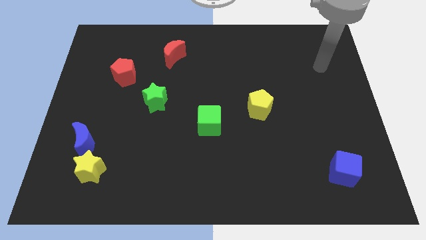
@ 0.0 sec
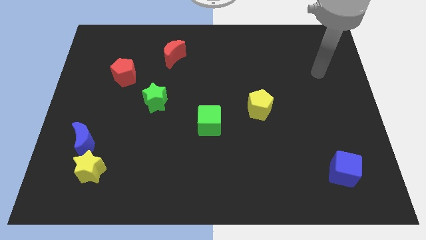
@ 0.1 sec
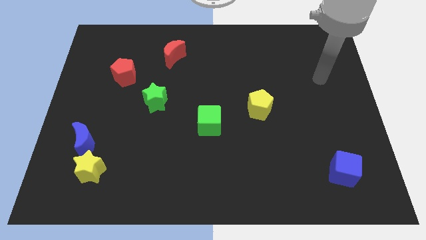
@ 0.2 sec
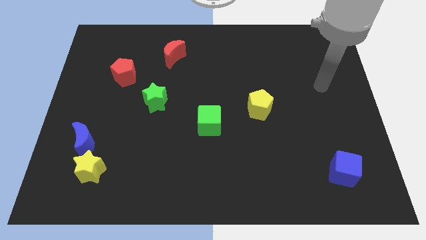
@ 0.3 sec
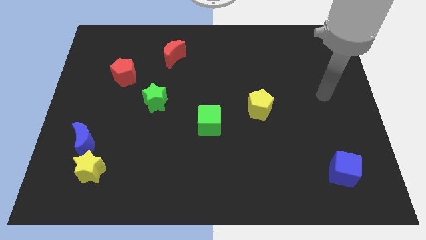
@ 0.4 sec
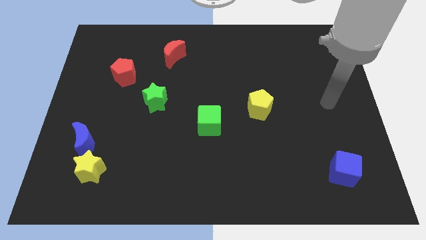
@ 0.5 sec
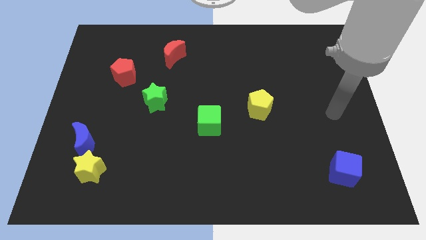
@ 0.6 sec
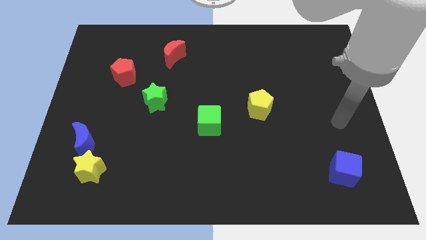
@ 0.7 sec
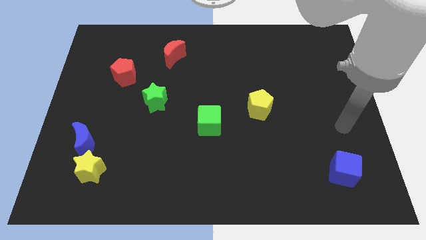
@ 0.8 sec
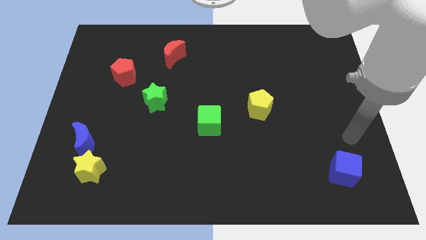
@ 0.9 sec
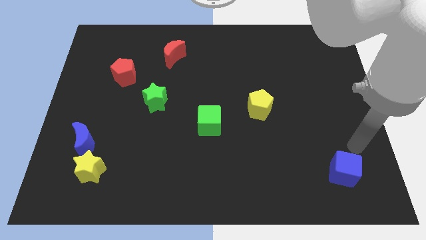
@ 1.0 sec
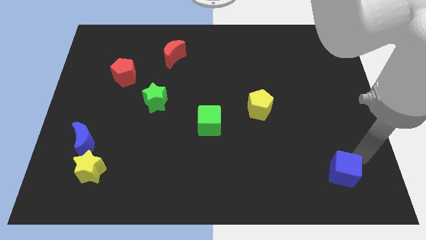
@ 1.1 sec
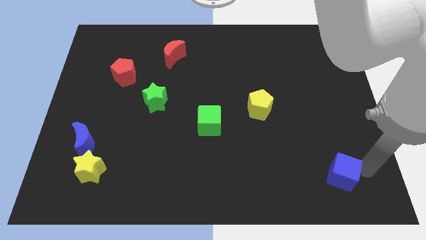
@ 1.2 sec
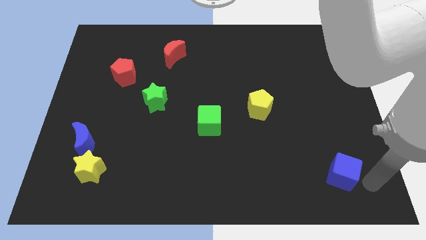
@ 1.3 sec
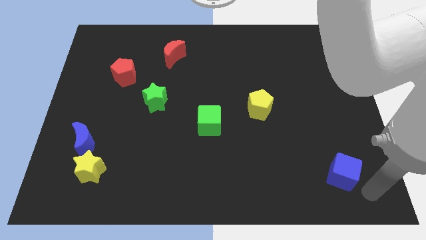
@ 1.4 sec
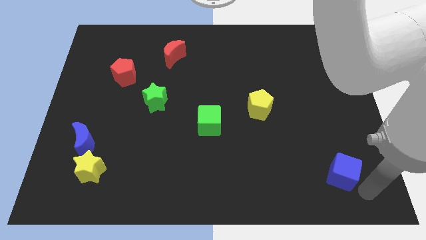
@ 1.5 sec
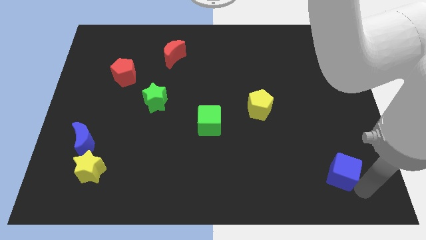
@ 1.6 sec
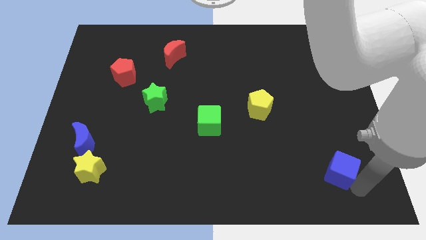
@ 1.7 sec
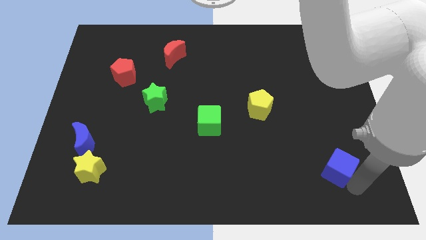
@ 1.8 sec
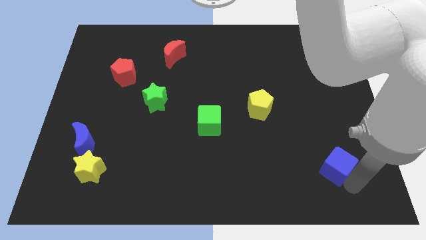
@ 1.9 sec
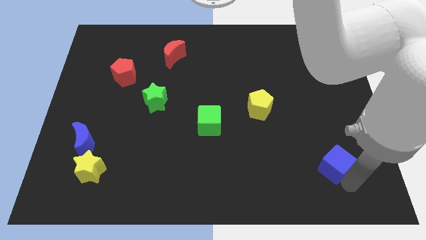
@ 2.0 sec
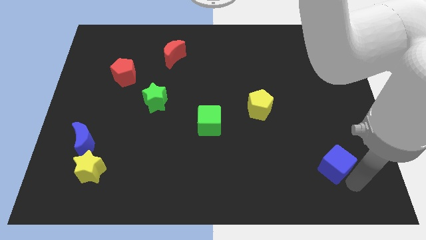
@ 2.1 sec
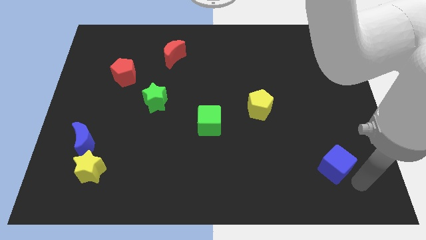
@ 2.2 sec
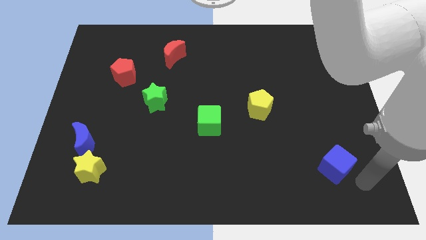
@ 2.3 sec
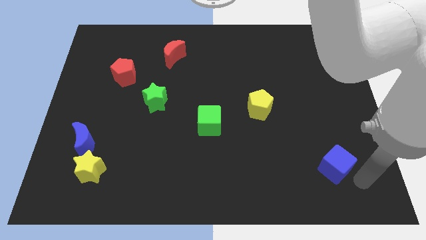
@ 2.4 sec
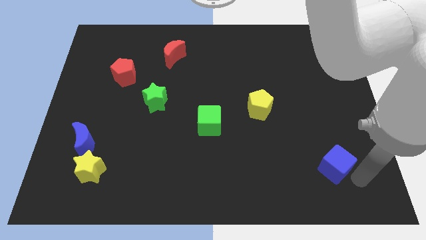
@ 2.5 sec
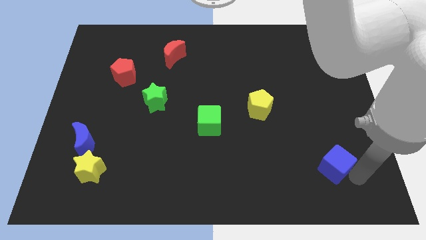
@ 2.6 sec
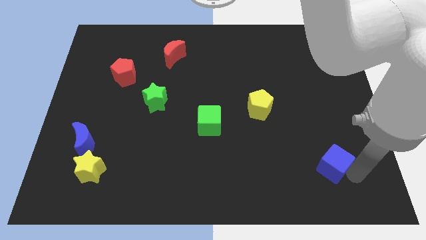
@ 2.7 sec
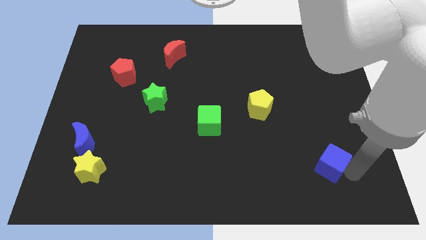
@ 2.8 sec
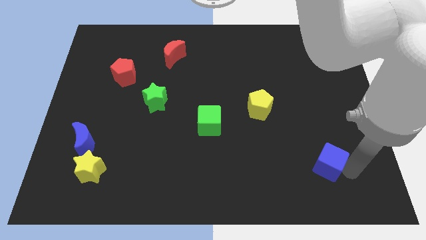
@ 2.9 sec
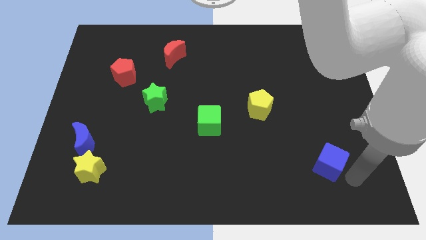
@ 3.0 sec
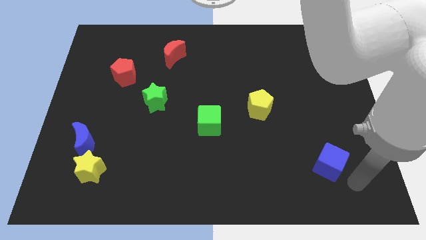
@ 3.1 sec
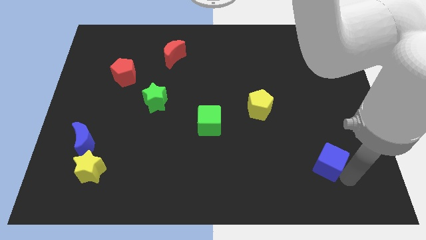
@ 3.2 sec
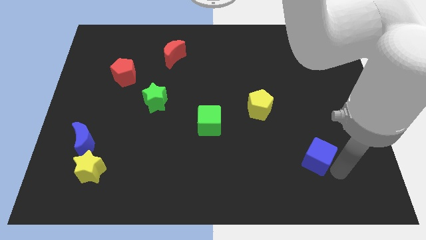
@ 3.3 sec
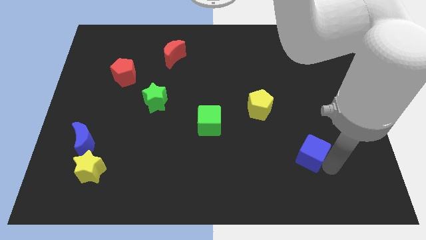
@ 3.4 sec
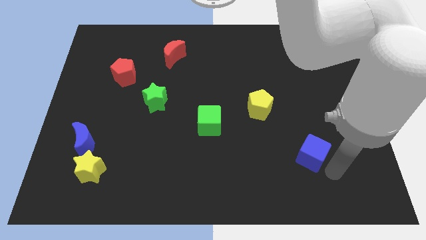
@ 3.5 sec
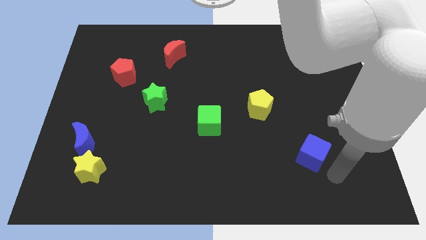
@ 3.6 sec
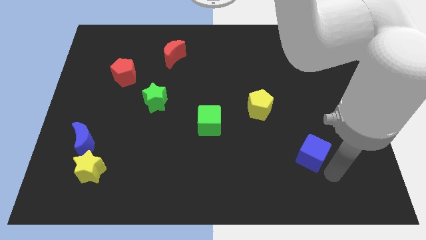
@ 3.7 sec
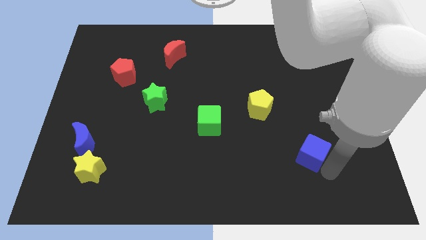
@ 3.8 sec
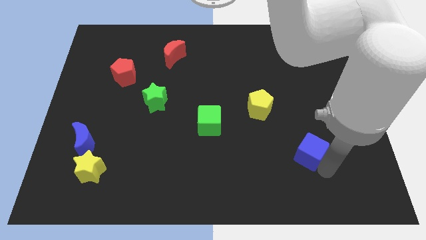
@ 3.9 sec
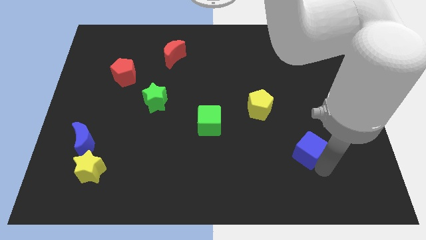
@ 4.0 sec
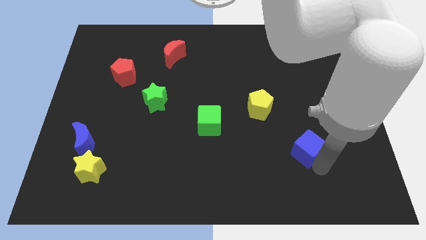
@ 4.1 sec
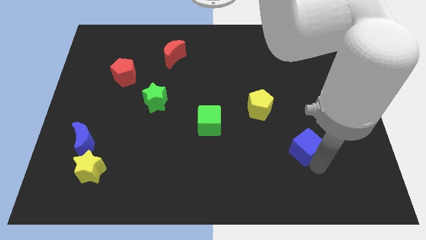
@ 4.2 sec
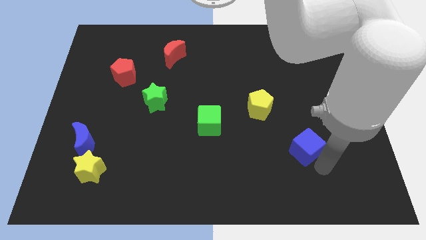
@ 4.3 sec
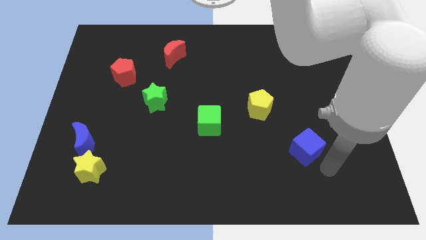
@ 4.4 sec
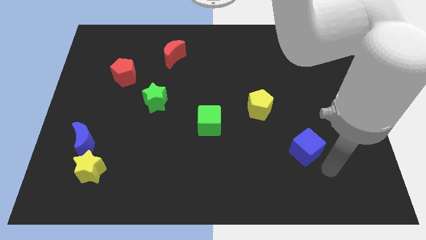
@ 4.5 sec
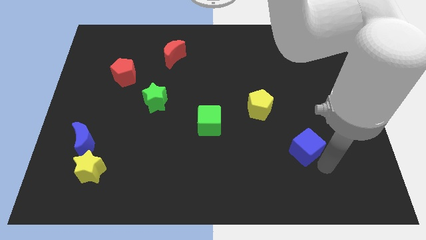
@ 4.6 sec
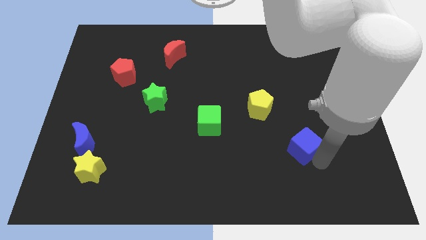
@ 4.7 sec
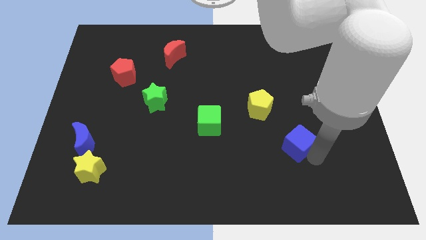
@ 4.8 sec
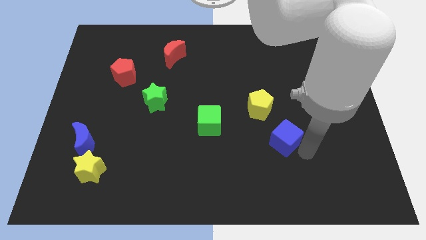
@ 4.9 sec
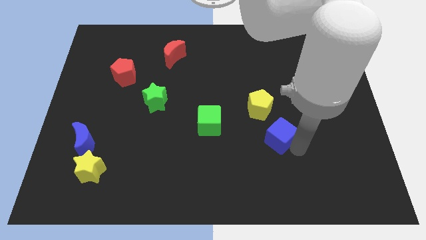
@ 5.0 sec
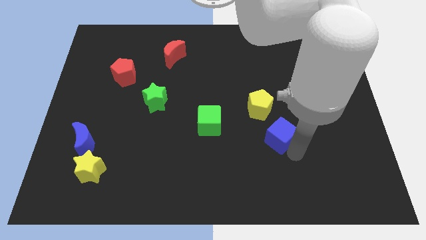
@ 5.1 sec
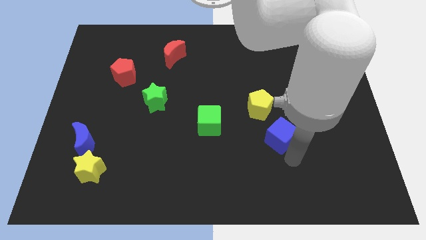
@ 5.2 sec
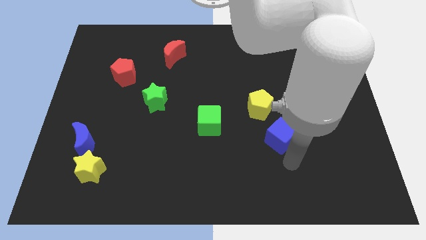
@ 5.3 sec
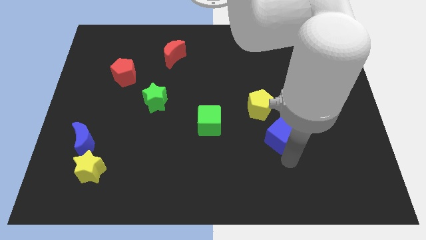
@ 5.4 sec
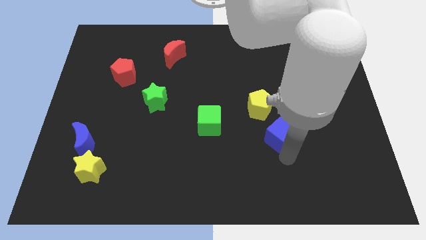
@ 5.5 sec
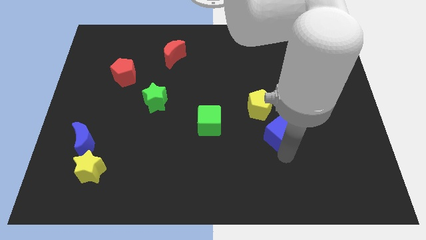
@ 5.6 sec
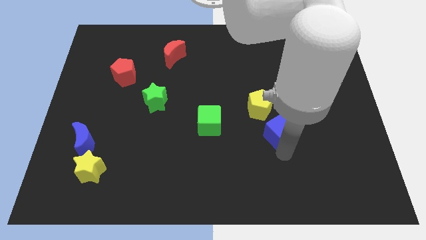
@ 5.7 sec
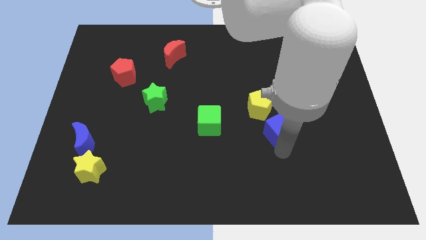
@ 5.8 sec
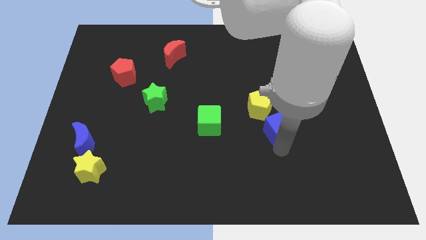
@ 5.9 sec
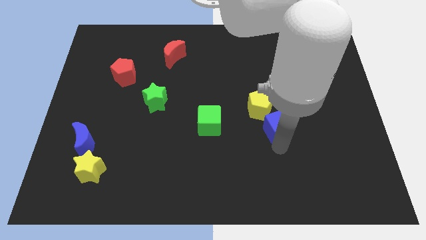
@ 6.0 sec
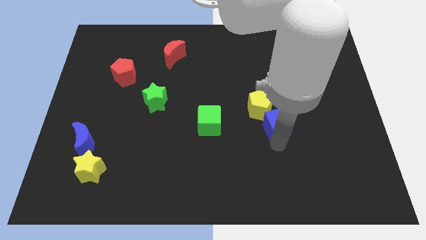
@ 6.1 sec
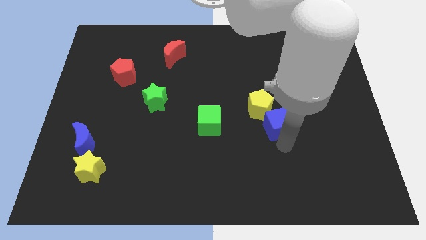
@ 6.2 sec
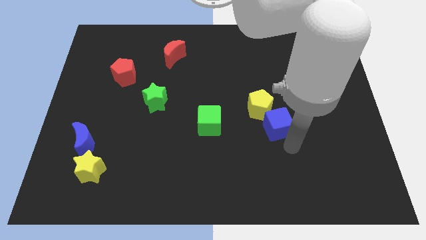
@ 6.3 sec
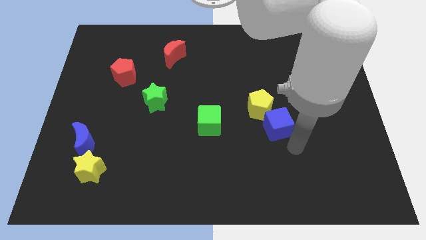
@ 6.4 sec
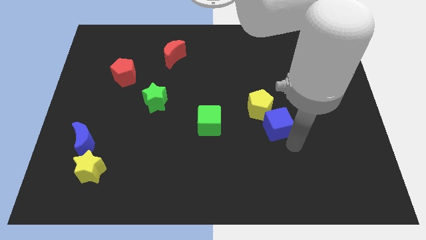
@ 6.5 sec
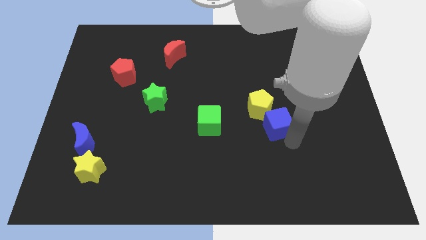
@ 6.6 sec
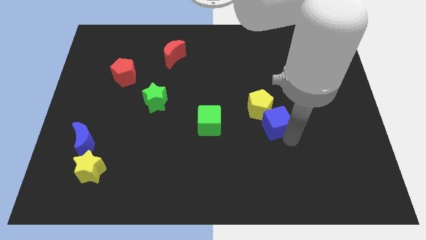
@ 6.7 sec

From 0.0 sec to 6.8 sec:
slide the blue cube next to the yellow pentagon

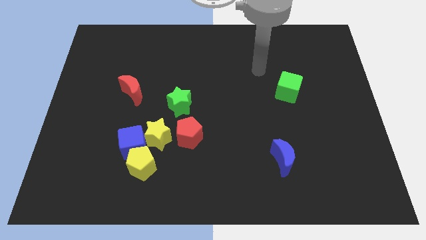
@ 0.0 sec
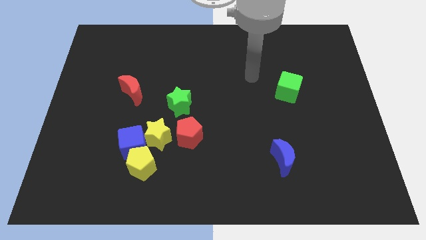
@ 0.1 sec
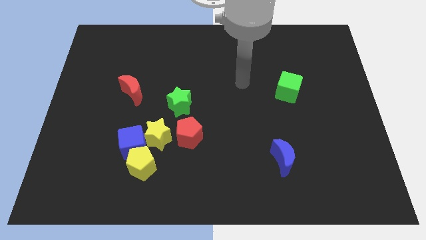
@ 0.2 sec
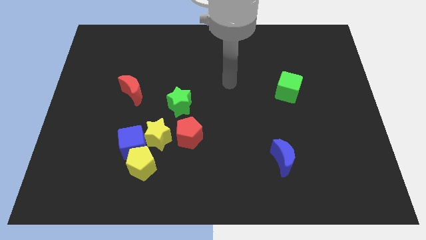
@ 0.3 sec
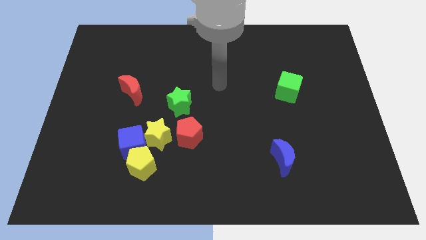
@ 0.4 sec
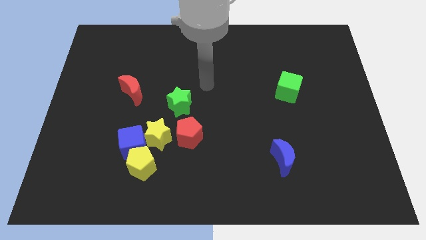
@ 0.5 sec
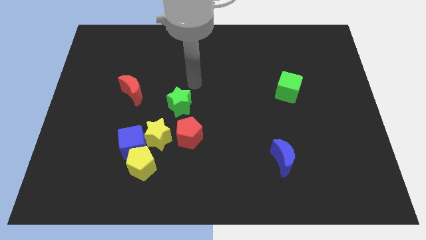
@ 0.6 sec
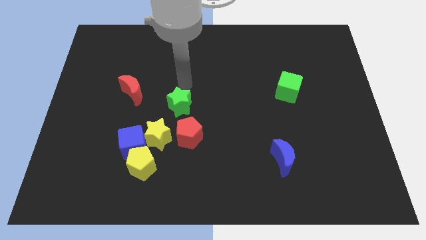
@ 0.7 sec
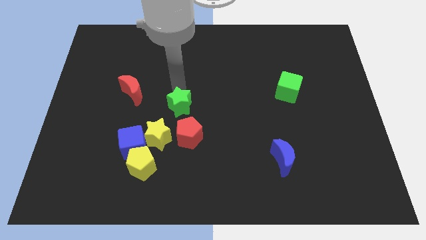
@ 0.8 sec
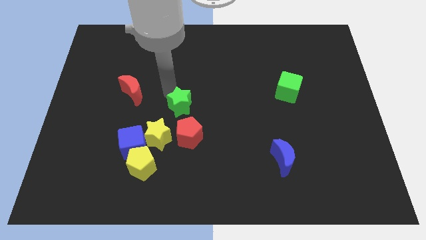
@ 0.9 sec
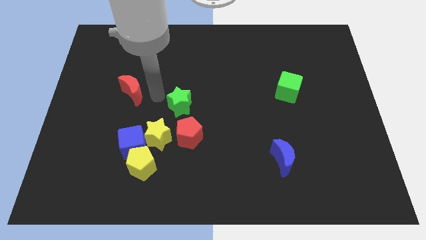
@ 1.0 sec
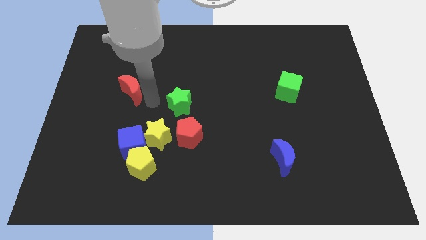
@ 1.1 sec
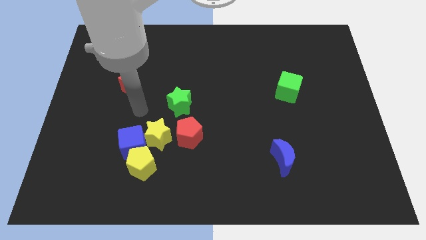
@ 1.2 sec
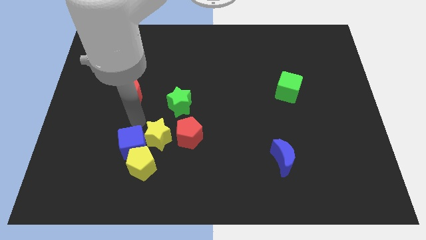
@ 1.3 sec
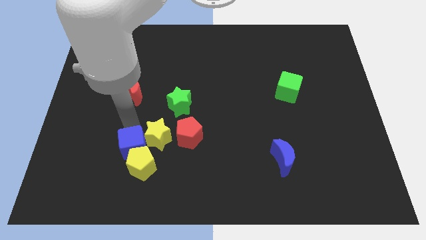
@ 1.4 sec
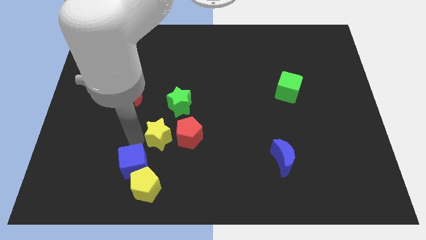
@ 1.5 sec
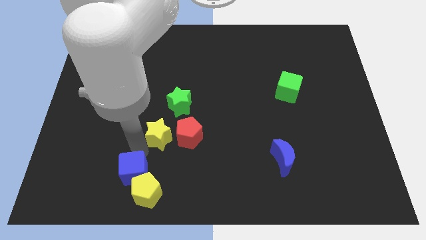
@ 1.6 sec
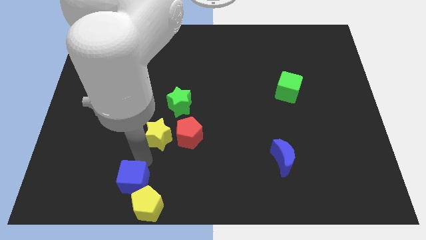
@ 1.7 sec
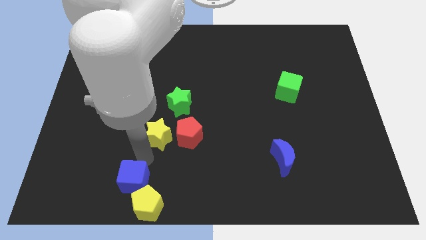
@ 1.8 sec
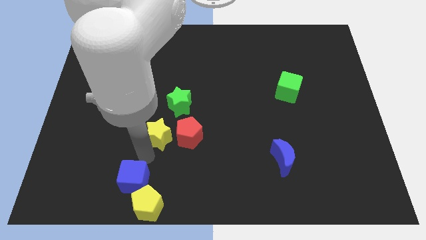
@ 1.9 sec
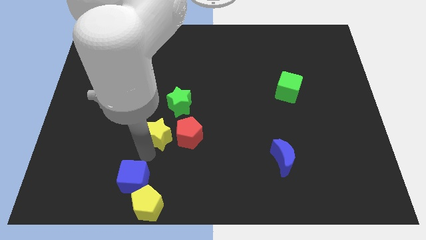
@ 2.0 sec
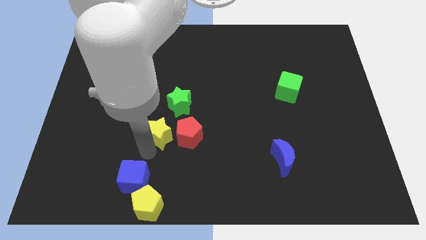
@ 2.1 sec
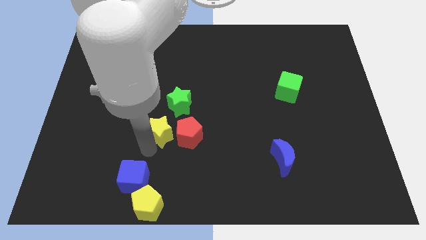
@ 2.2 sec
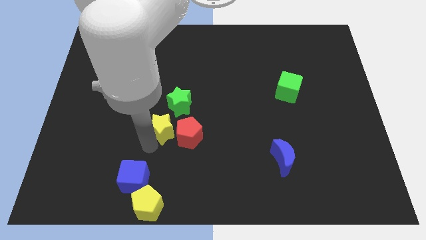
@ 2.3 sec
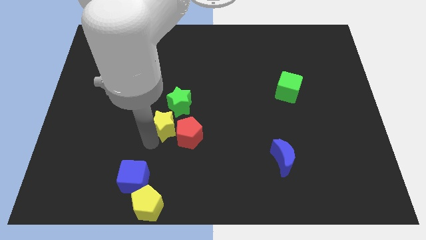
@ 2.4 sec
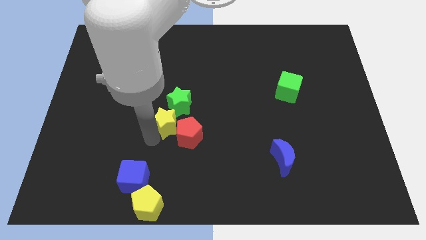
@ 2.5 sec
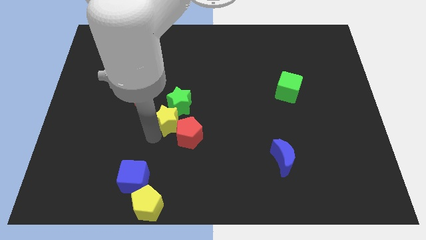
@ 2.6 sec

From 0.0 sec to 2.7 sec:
slide the yellow star towards the green star
